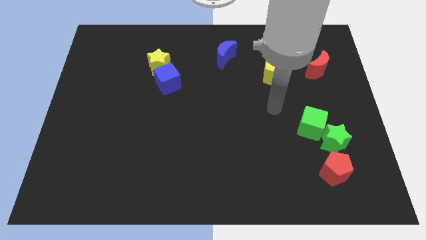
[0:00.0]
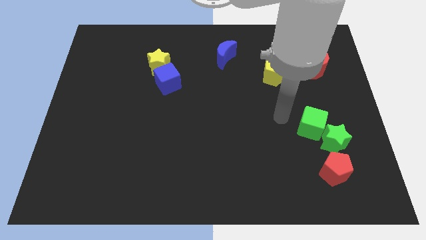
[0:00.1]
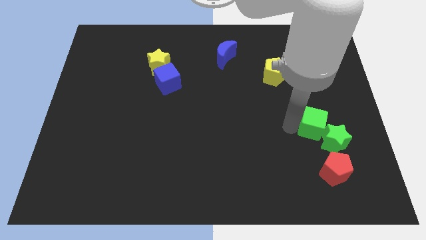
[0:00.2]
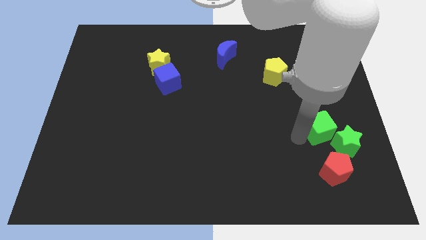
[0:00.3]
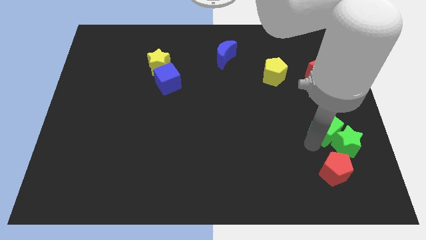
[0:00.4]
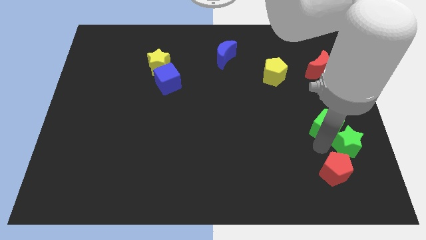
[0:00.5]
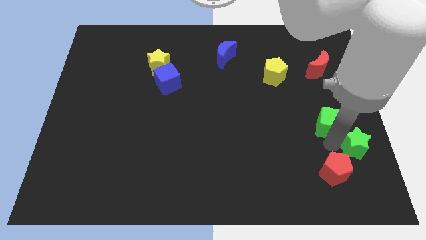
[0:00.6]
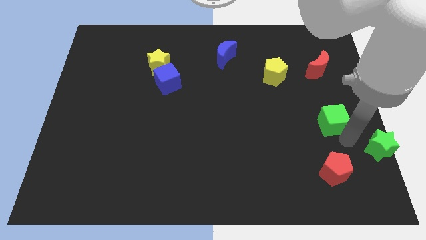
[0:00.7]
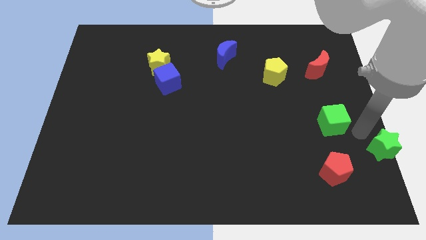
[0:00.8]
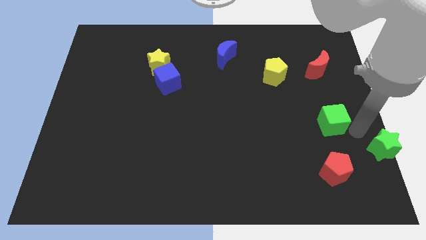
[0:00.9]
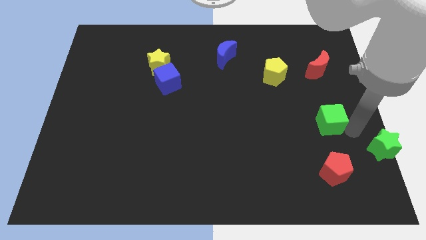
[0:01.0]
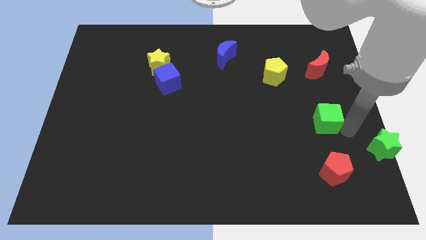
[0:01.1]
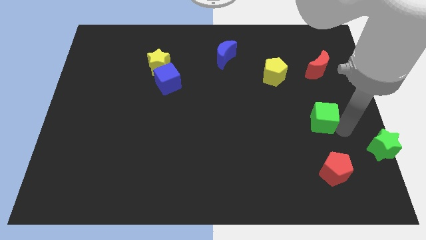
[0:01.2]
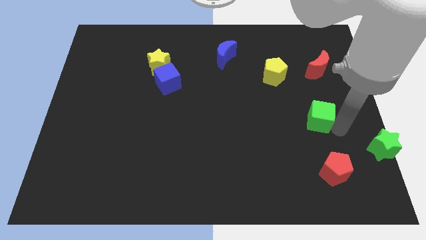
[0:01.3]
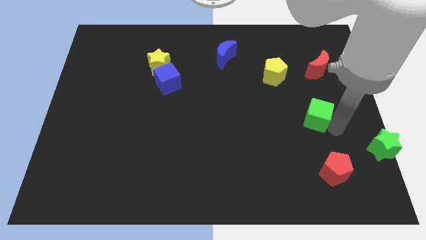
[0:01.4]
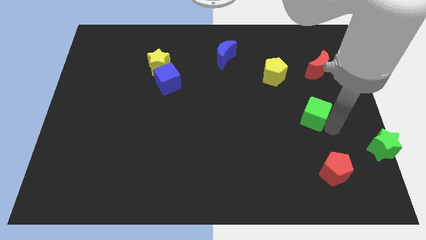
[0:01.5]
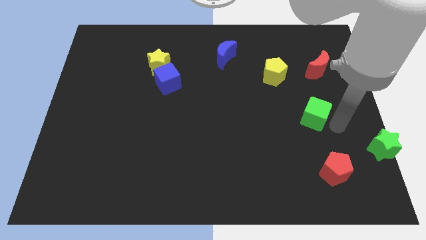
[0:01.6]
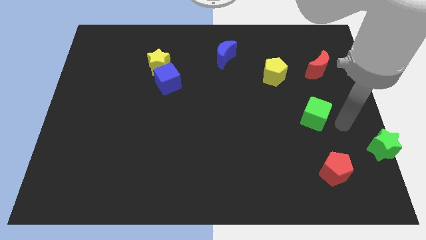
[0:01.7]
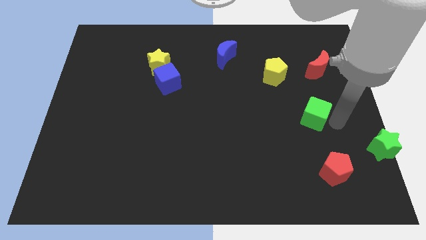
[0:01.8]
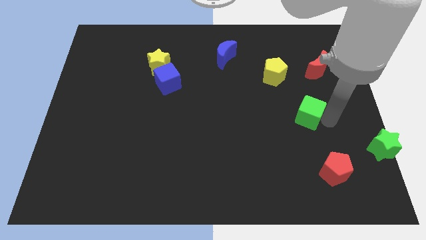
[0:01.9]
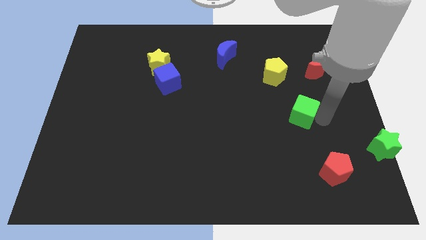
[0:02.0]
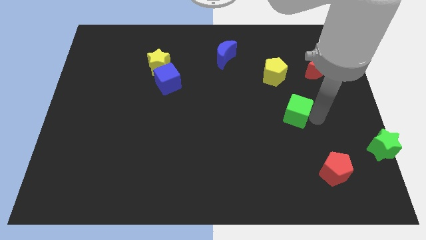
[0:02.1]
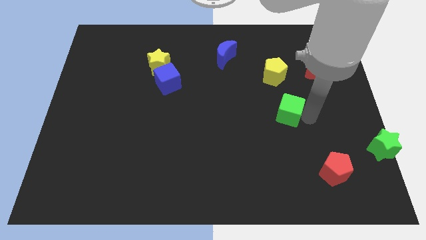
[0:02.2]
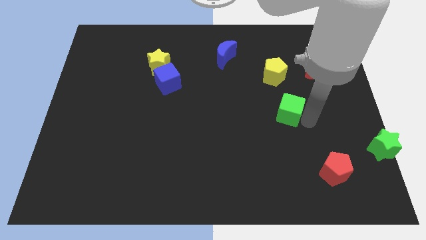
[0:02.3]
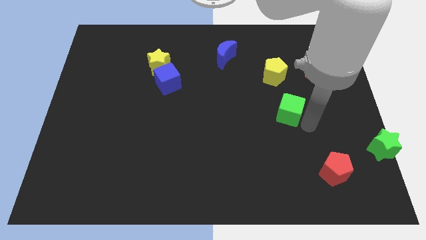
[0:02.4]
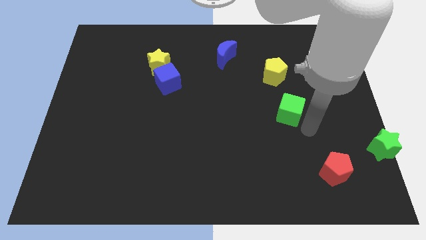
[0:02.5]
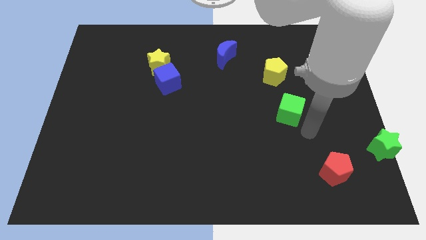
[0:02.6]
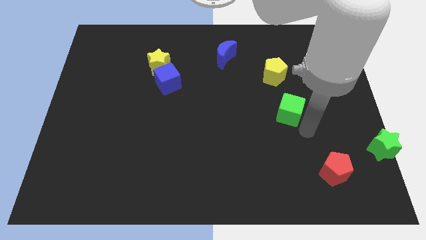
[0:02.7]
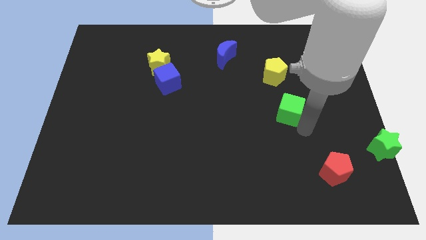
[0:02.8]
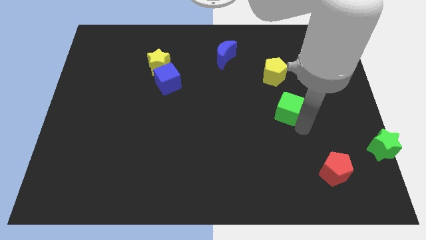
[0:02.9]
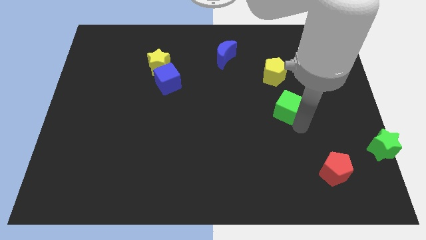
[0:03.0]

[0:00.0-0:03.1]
push the green cube up and to the left diagonally a little

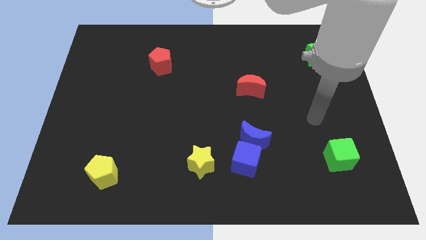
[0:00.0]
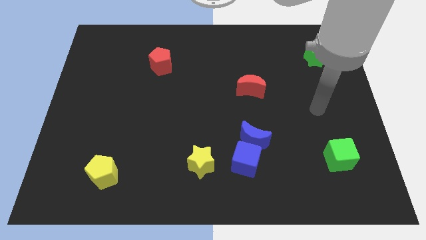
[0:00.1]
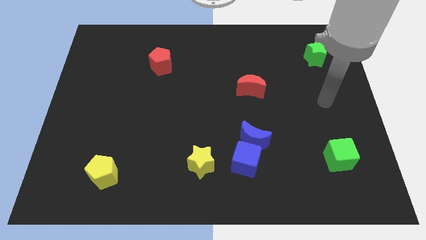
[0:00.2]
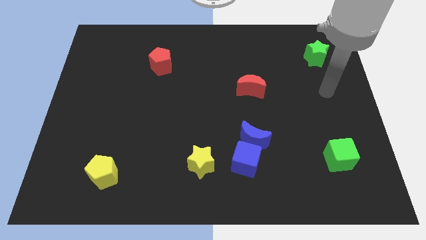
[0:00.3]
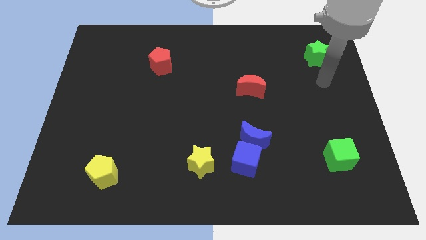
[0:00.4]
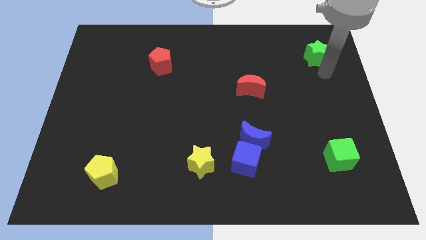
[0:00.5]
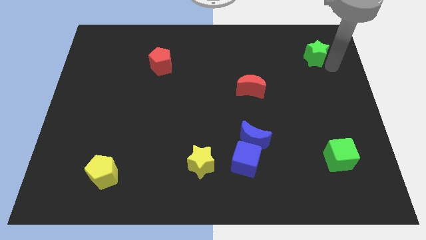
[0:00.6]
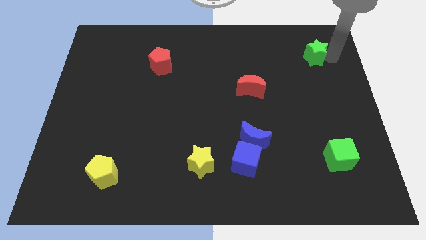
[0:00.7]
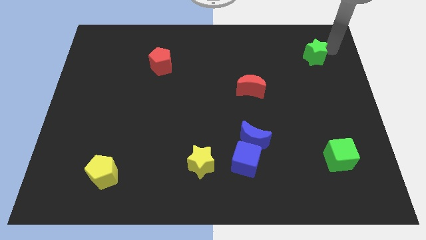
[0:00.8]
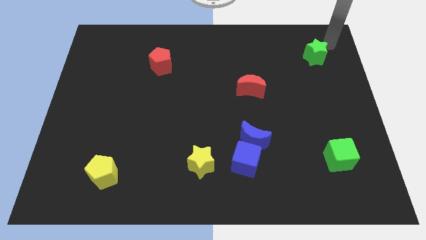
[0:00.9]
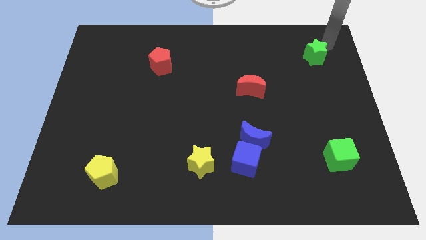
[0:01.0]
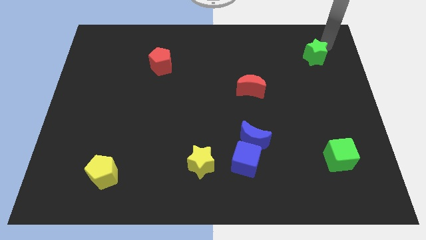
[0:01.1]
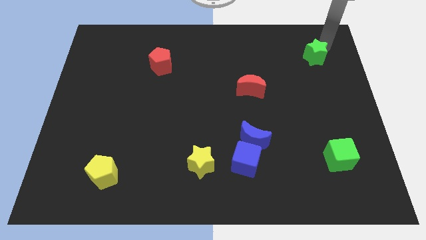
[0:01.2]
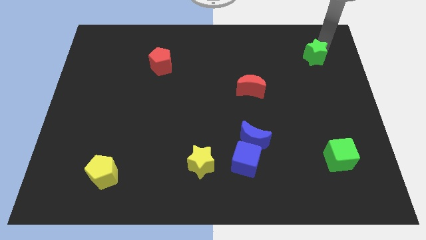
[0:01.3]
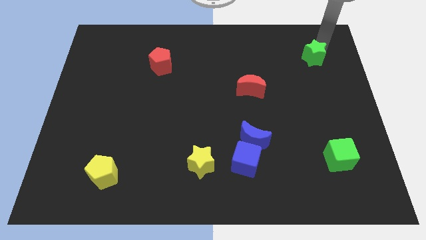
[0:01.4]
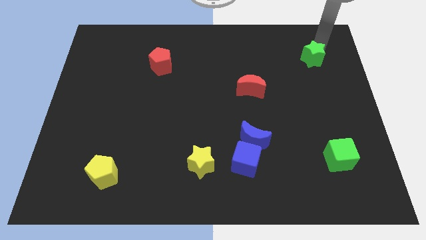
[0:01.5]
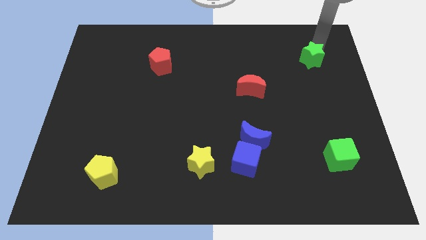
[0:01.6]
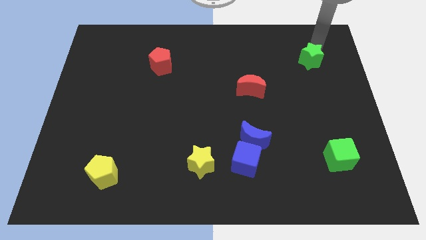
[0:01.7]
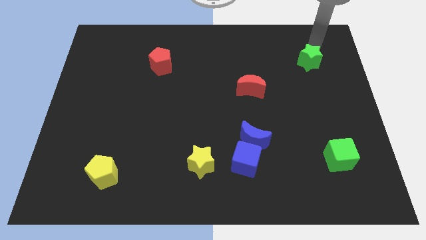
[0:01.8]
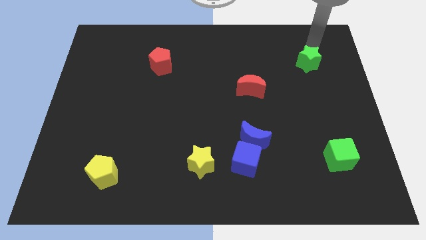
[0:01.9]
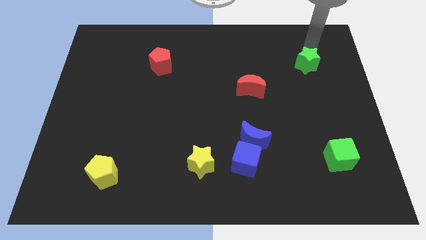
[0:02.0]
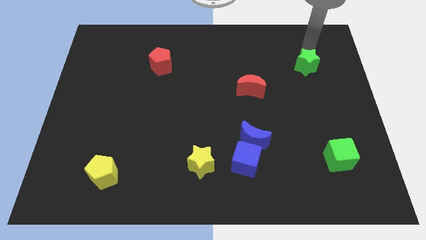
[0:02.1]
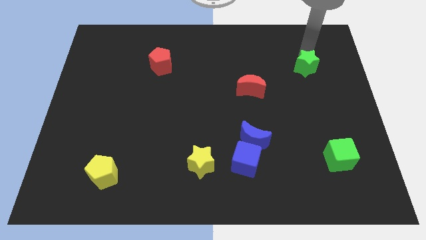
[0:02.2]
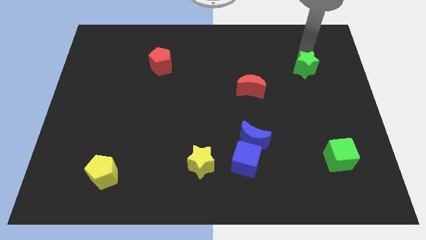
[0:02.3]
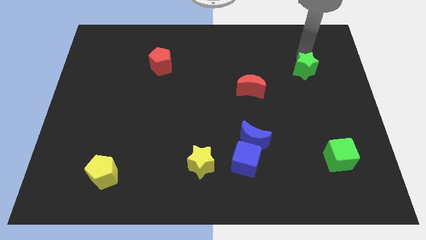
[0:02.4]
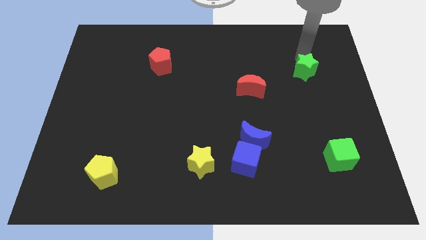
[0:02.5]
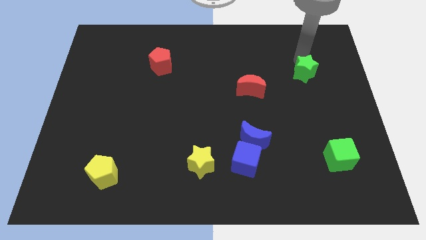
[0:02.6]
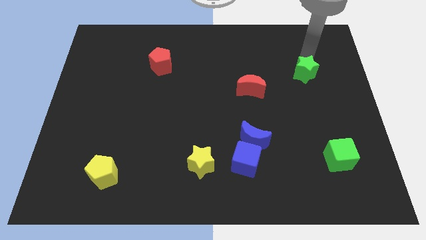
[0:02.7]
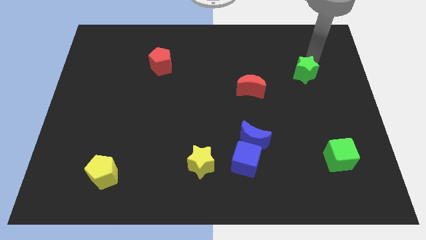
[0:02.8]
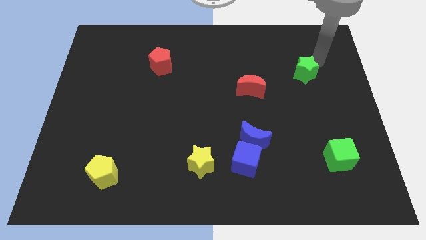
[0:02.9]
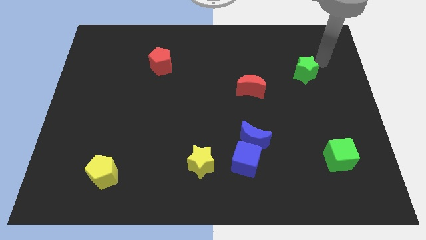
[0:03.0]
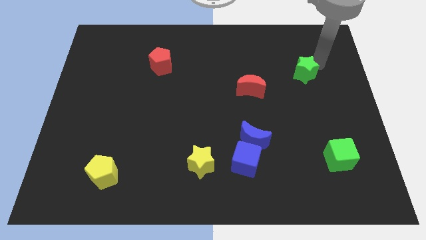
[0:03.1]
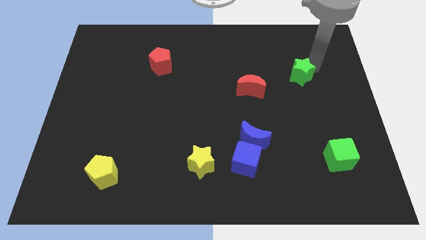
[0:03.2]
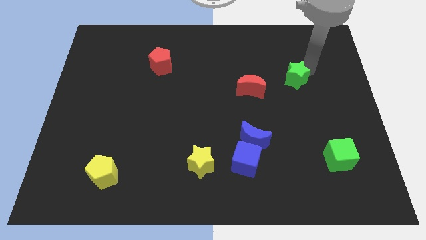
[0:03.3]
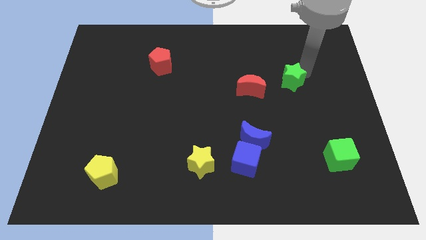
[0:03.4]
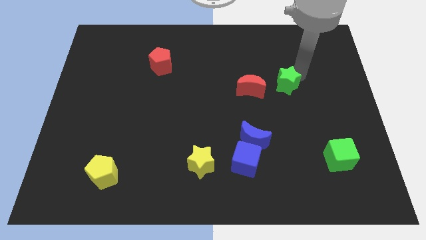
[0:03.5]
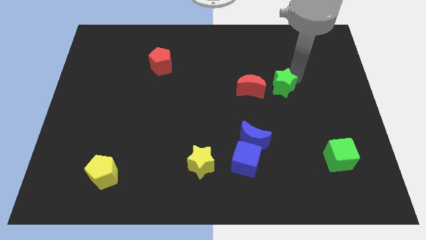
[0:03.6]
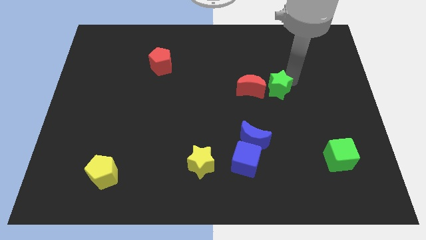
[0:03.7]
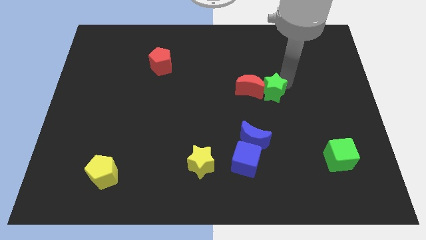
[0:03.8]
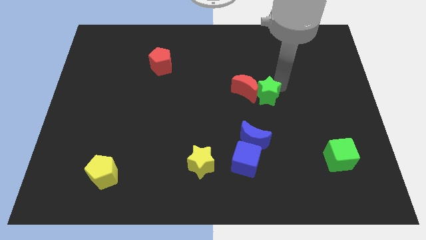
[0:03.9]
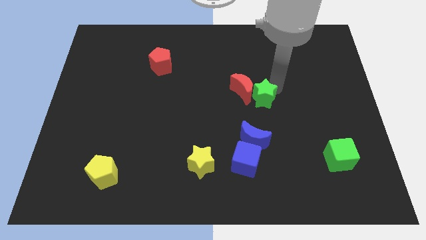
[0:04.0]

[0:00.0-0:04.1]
move the green star down and then left

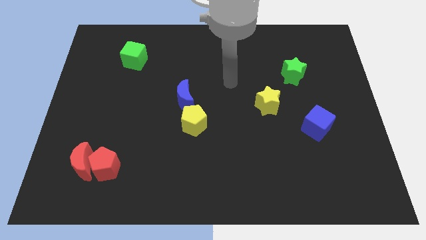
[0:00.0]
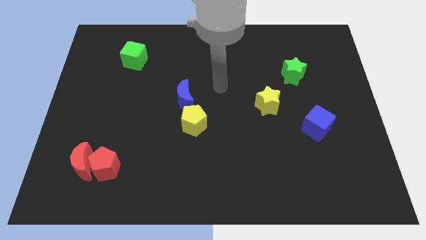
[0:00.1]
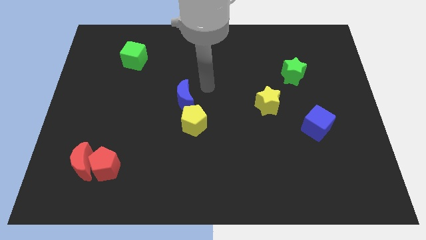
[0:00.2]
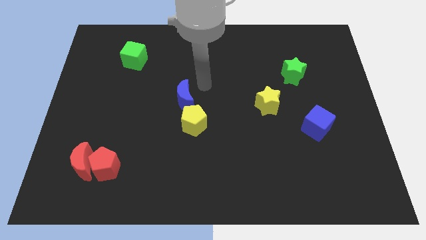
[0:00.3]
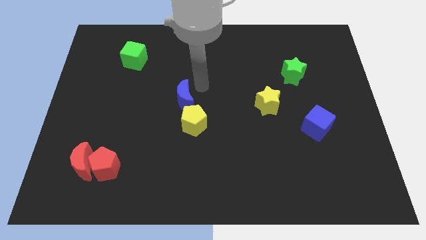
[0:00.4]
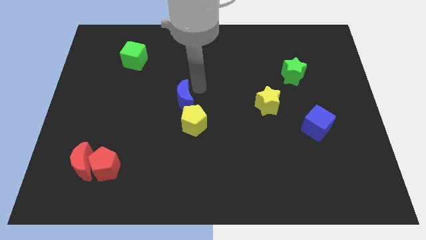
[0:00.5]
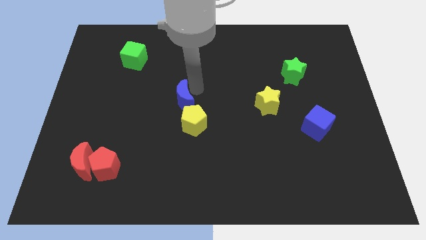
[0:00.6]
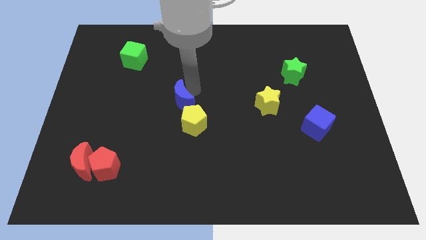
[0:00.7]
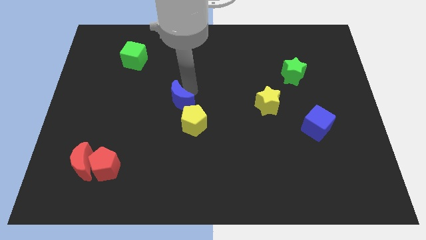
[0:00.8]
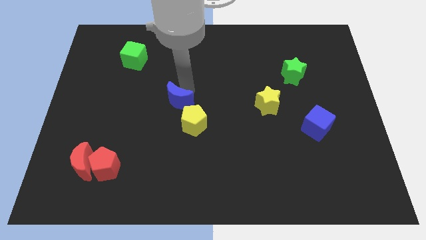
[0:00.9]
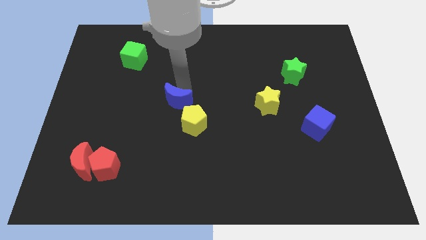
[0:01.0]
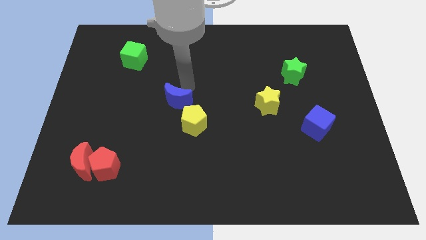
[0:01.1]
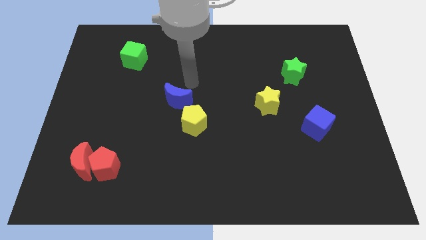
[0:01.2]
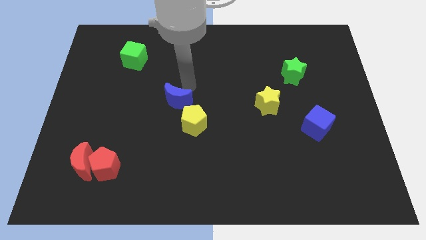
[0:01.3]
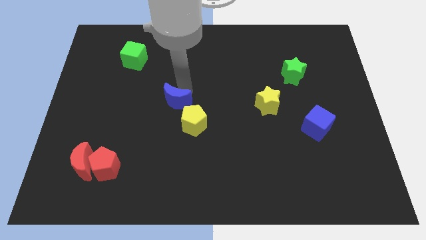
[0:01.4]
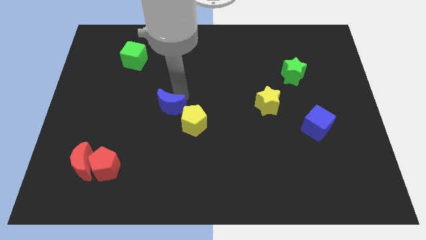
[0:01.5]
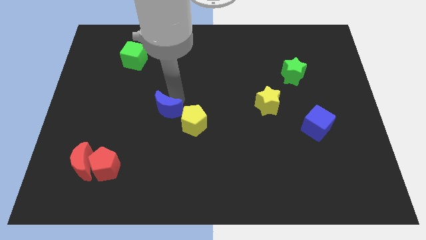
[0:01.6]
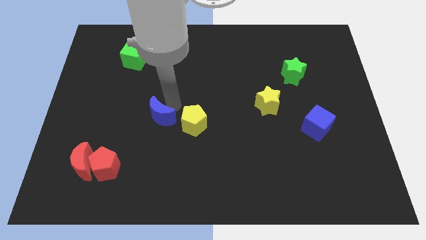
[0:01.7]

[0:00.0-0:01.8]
push the blue moon down and to the left diagonally slightly
